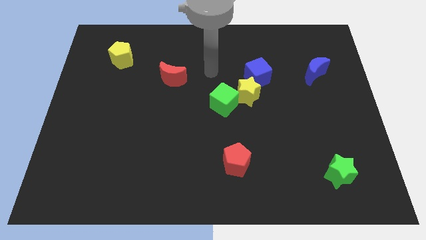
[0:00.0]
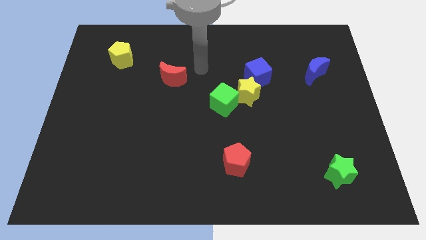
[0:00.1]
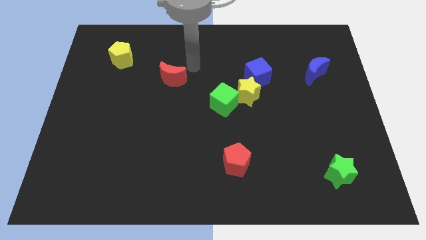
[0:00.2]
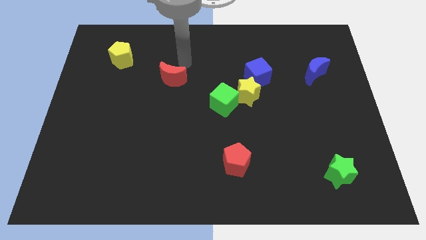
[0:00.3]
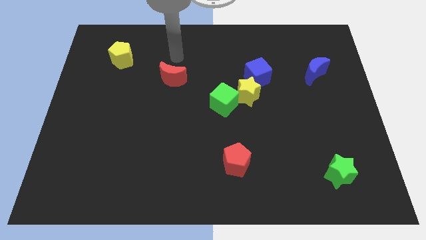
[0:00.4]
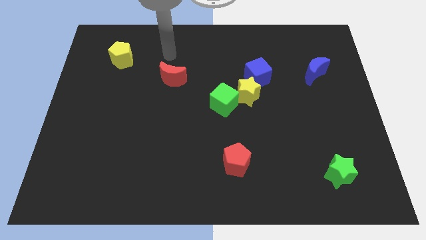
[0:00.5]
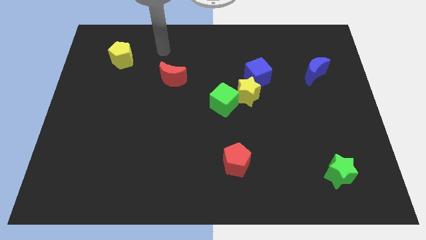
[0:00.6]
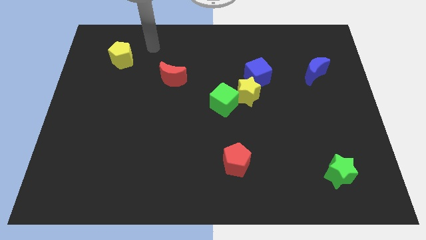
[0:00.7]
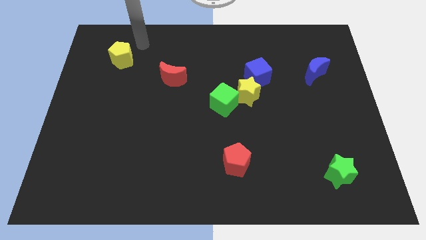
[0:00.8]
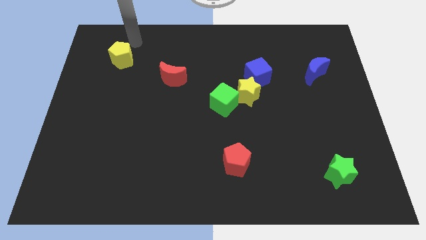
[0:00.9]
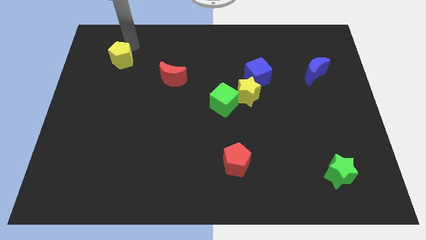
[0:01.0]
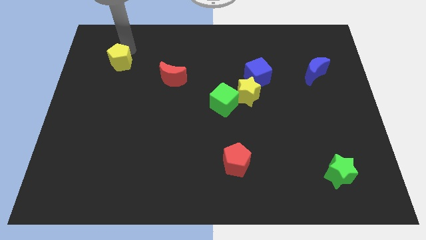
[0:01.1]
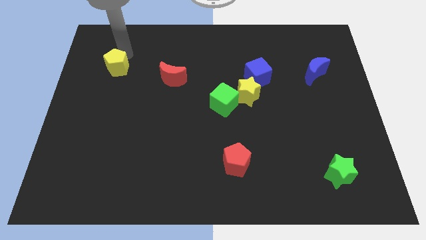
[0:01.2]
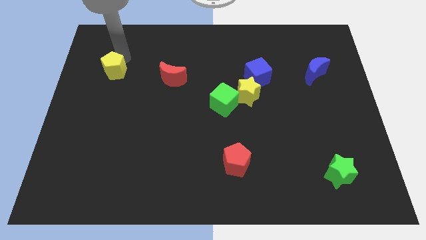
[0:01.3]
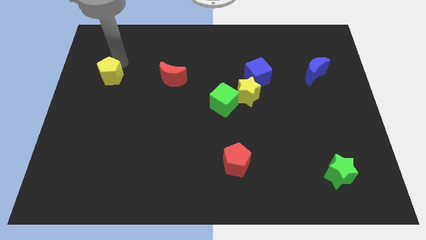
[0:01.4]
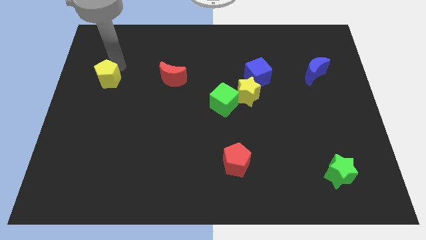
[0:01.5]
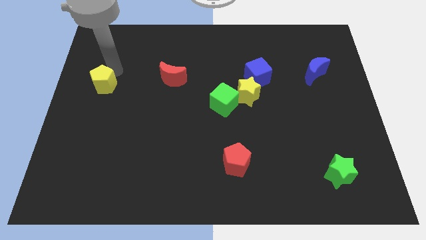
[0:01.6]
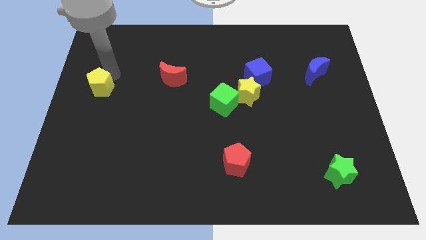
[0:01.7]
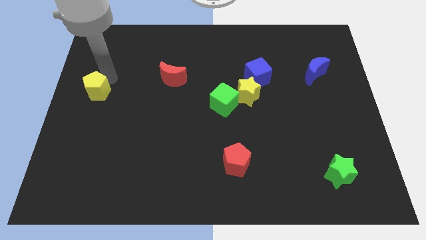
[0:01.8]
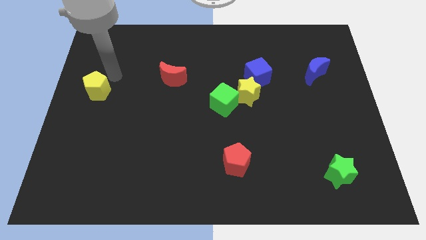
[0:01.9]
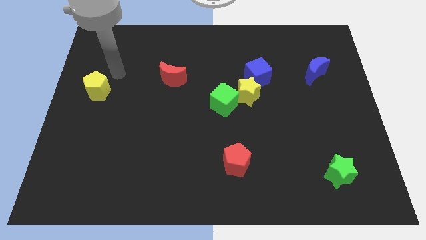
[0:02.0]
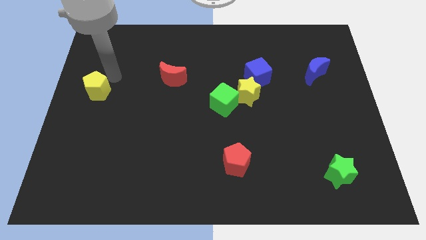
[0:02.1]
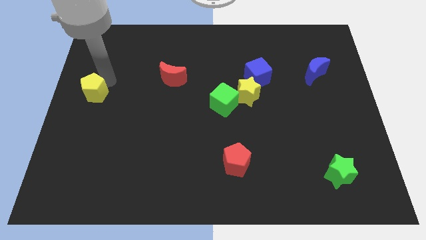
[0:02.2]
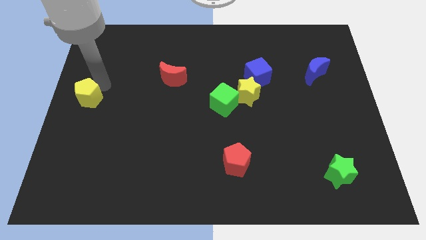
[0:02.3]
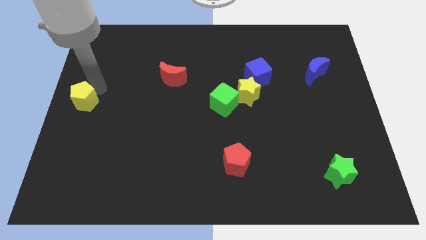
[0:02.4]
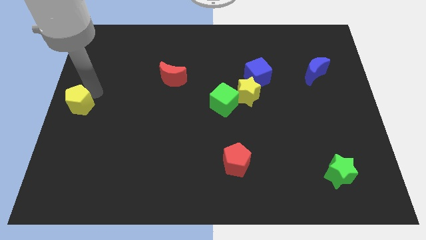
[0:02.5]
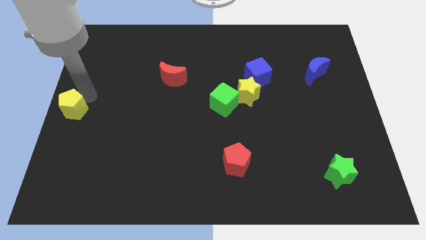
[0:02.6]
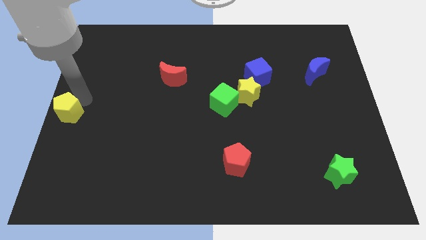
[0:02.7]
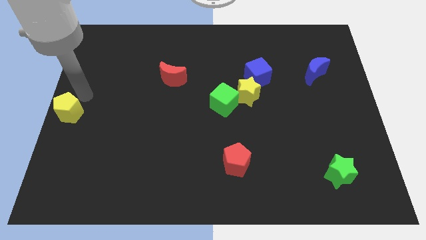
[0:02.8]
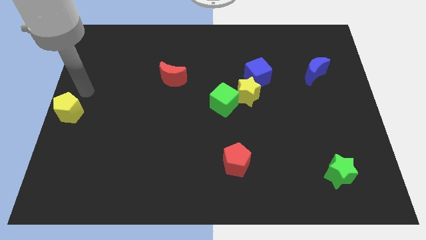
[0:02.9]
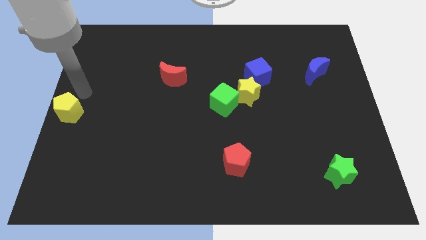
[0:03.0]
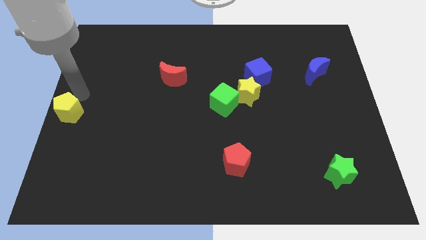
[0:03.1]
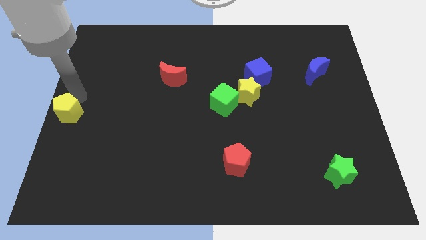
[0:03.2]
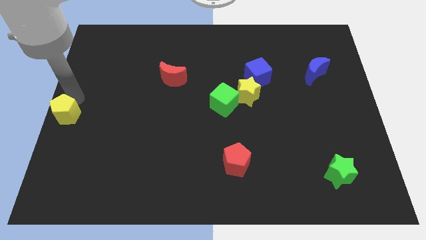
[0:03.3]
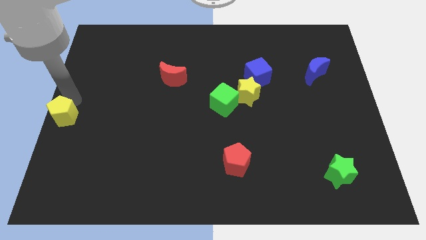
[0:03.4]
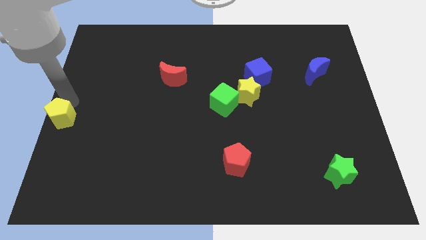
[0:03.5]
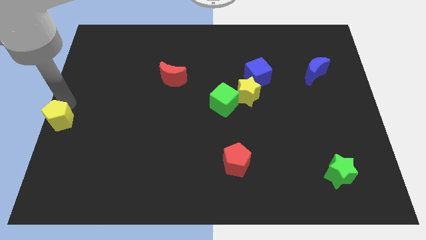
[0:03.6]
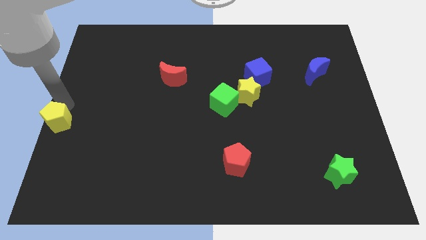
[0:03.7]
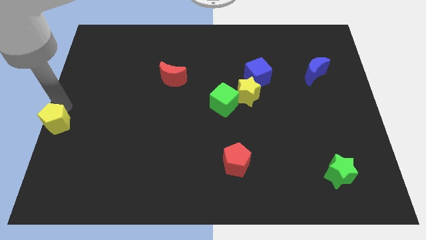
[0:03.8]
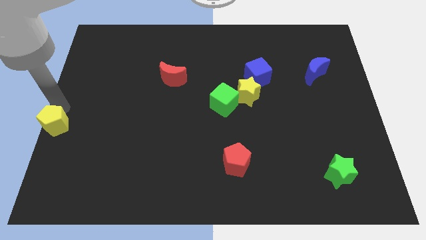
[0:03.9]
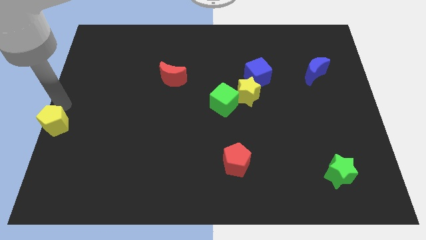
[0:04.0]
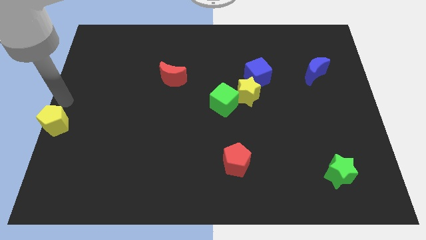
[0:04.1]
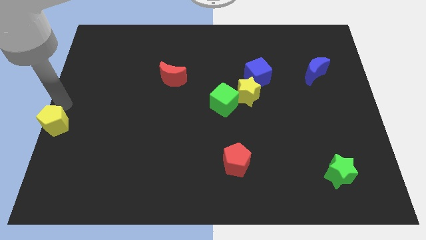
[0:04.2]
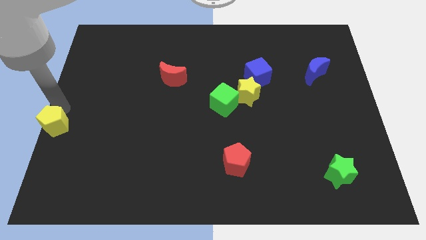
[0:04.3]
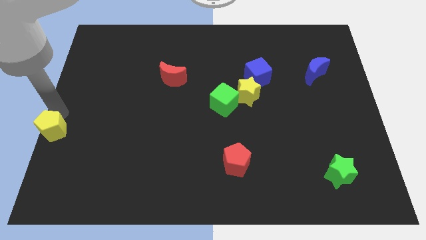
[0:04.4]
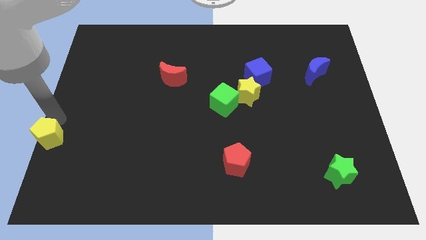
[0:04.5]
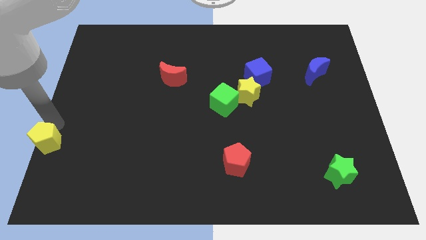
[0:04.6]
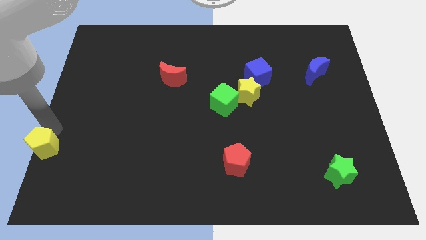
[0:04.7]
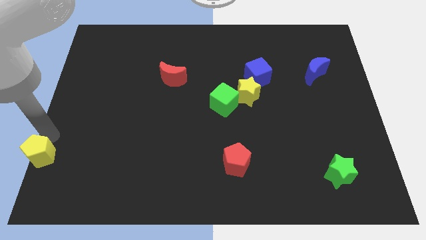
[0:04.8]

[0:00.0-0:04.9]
slide the yellow pentagon to the bottom left corner

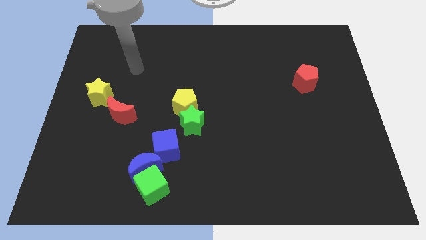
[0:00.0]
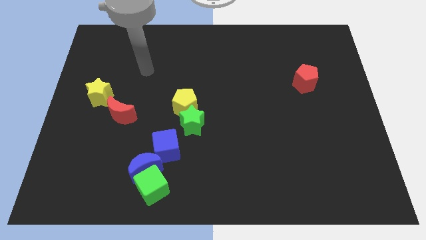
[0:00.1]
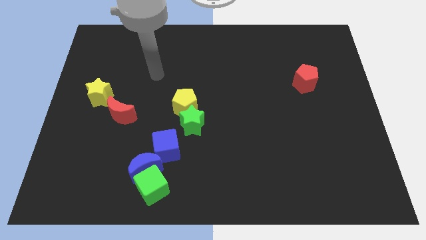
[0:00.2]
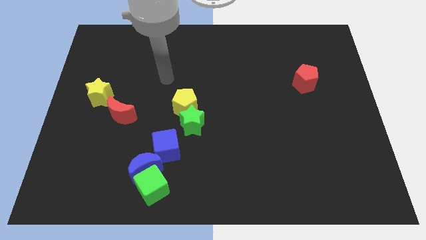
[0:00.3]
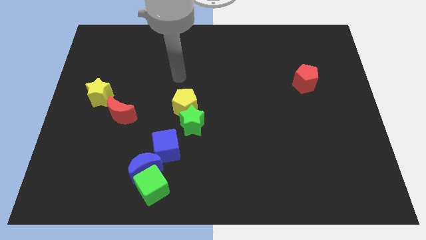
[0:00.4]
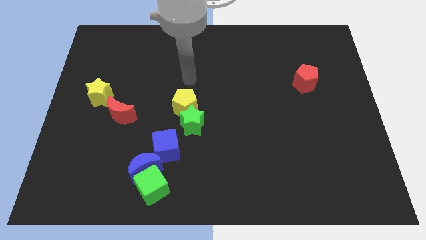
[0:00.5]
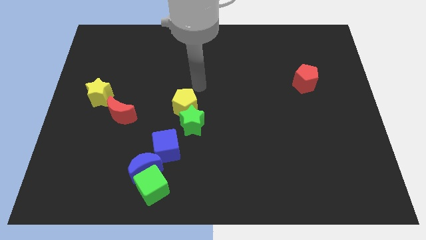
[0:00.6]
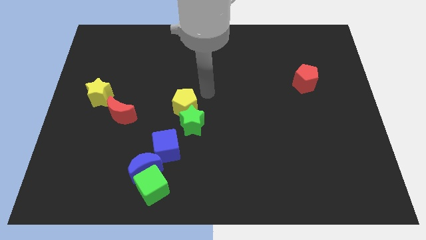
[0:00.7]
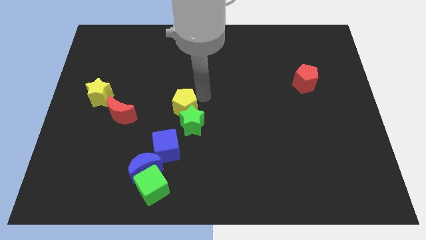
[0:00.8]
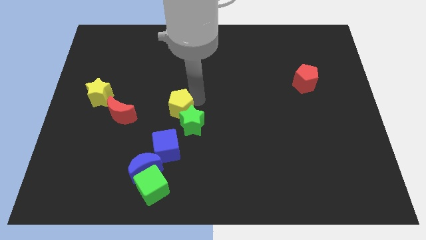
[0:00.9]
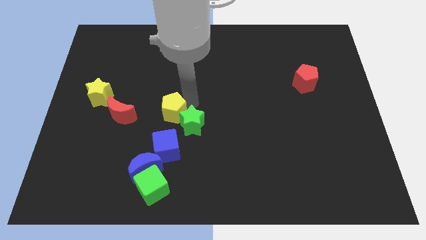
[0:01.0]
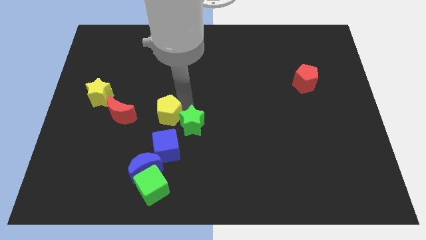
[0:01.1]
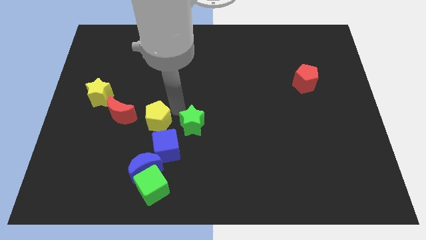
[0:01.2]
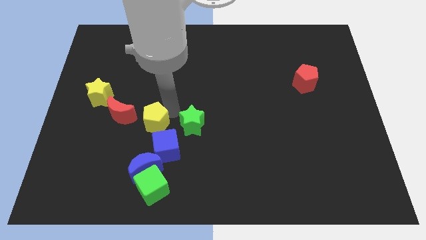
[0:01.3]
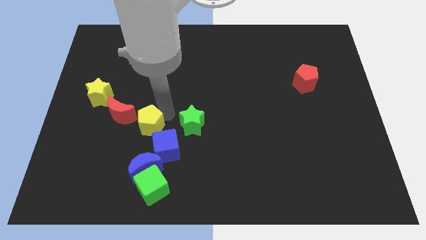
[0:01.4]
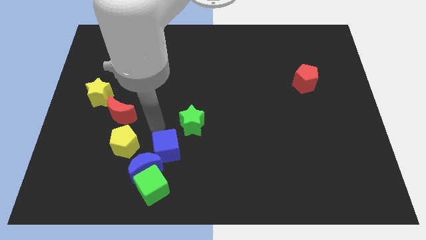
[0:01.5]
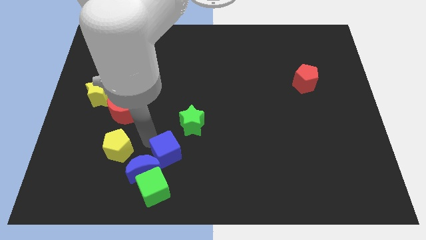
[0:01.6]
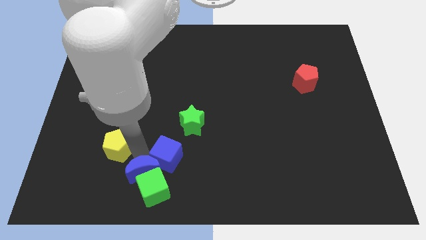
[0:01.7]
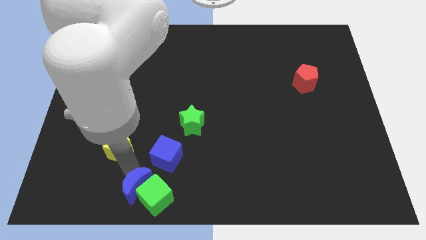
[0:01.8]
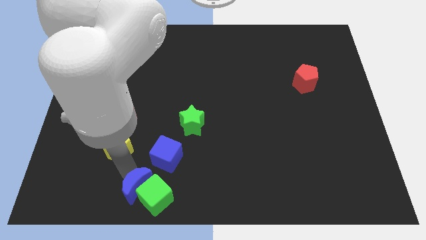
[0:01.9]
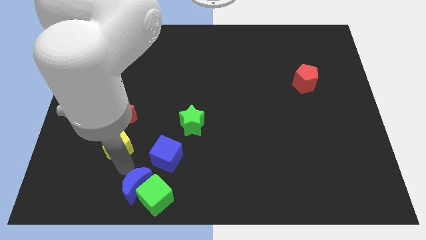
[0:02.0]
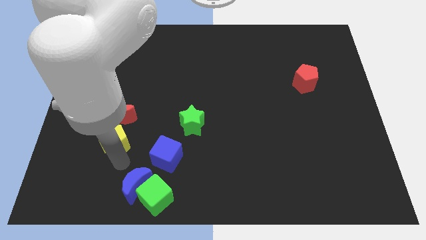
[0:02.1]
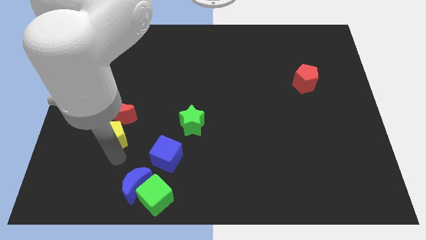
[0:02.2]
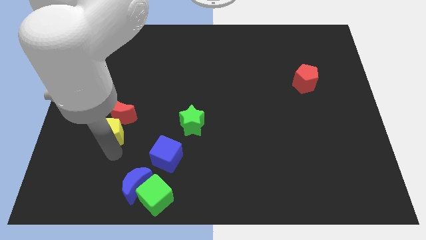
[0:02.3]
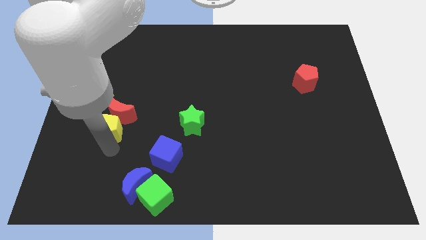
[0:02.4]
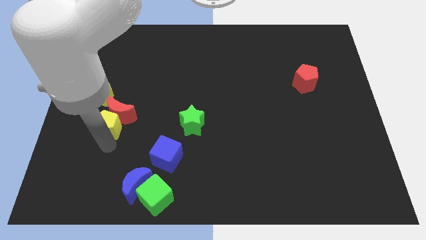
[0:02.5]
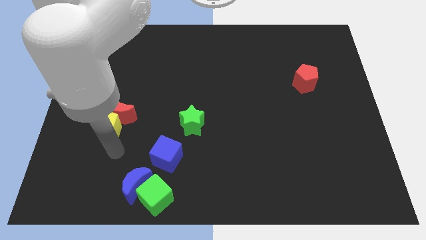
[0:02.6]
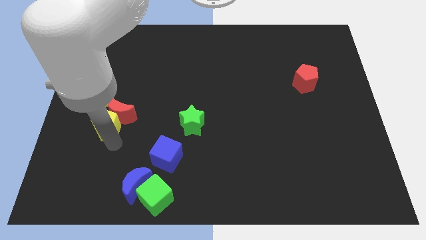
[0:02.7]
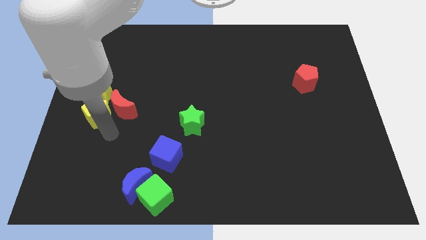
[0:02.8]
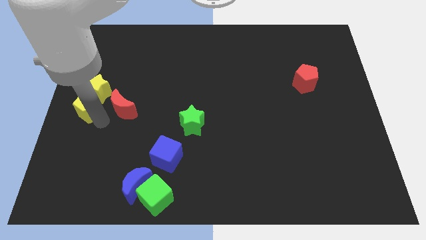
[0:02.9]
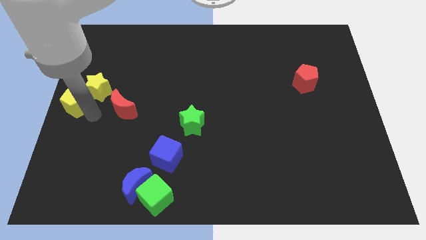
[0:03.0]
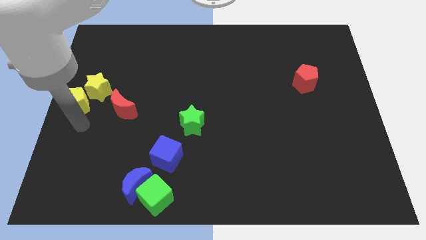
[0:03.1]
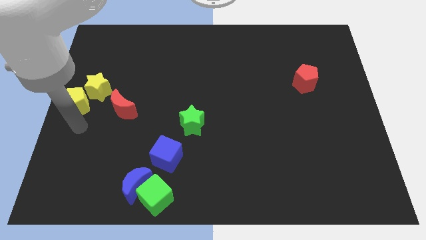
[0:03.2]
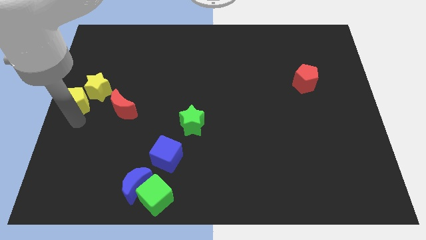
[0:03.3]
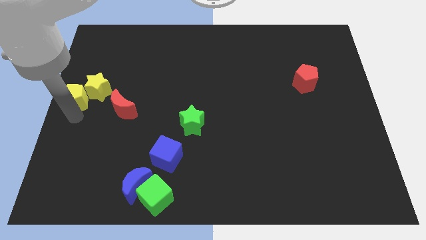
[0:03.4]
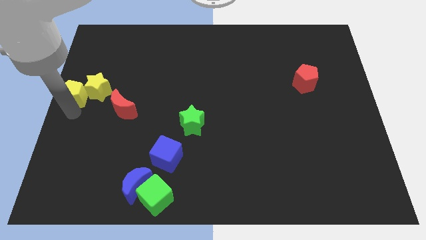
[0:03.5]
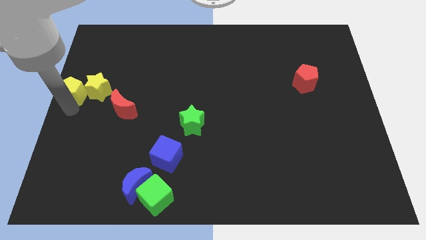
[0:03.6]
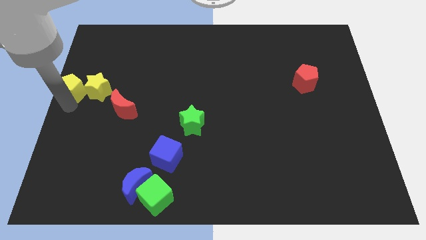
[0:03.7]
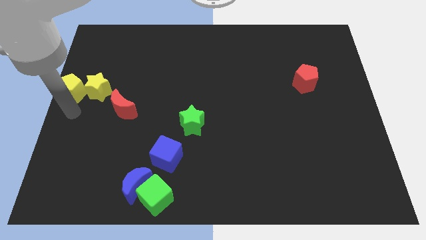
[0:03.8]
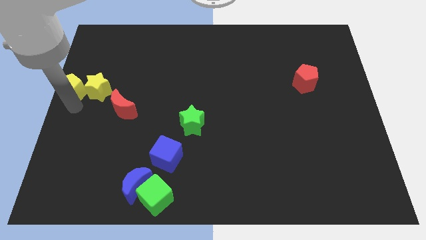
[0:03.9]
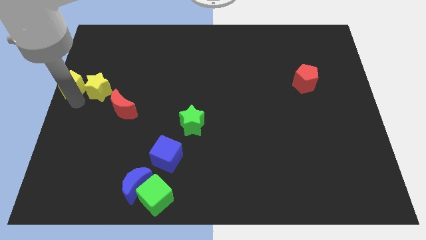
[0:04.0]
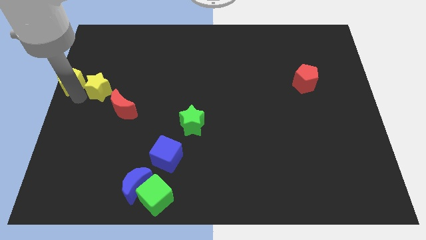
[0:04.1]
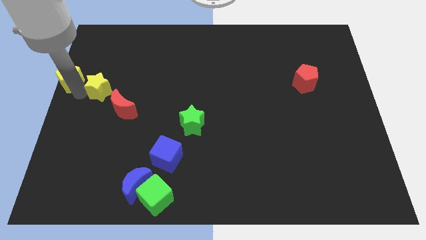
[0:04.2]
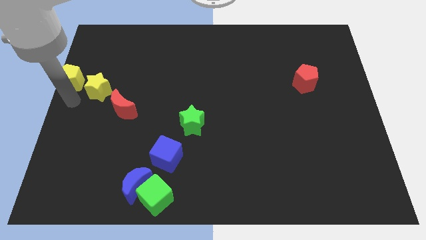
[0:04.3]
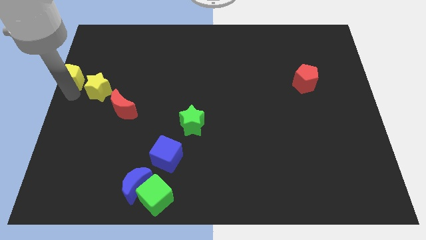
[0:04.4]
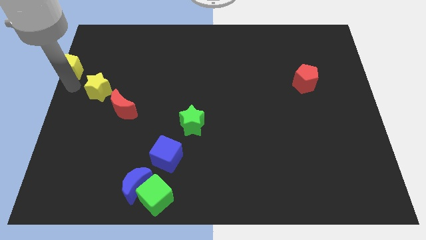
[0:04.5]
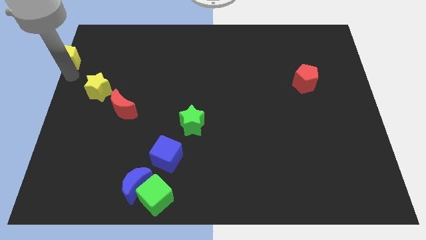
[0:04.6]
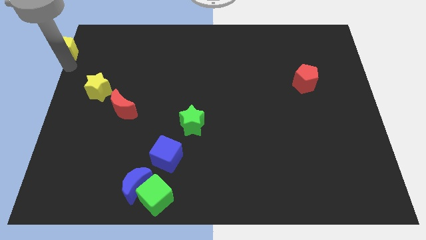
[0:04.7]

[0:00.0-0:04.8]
push the yellow pentagon to the upper left corner
